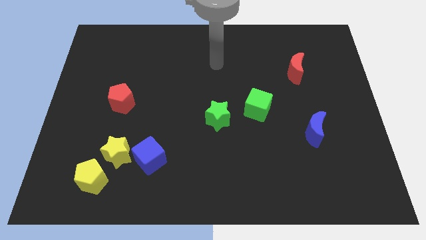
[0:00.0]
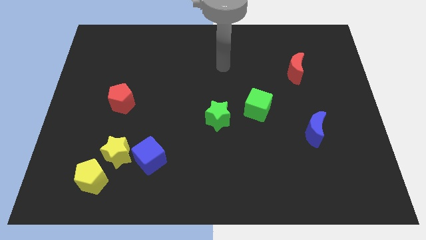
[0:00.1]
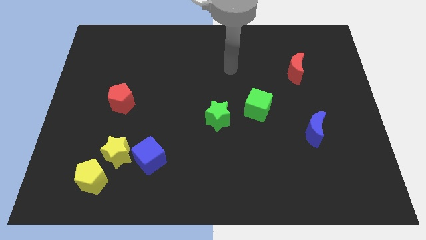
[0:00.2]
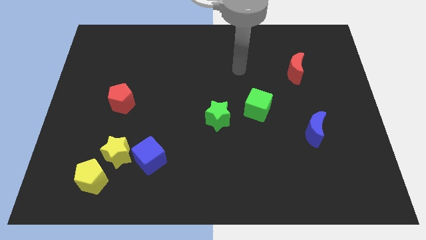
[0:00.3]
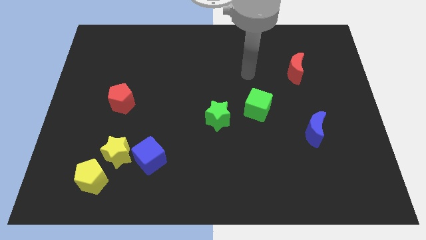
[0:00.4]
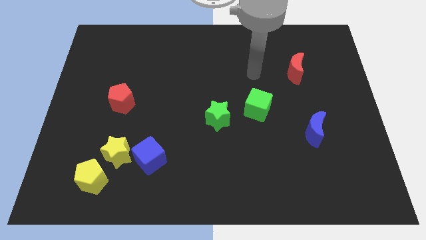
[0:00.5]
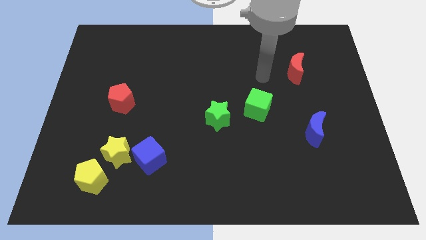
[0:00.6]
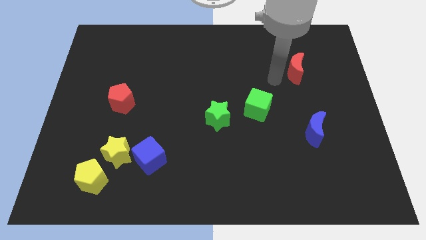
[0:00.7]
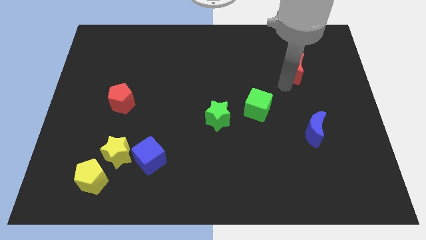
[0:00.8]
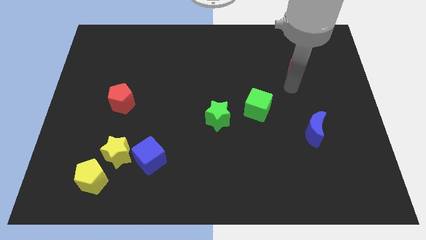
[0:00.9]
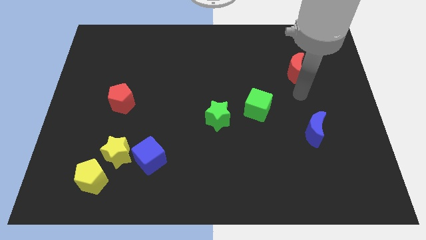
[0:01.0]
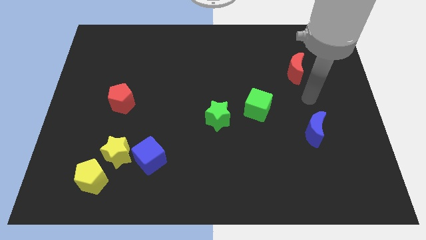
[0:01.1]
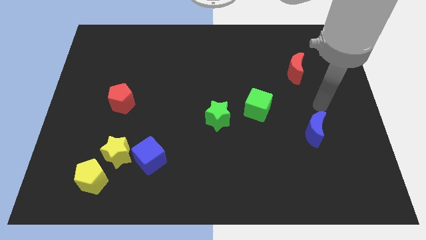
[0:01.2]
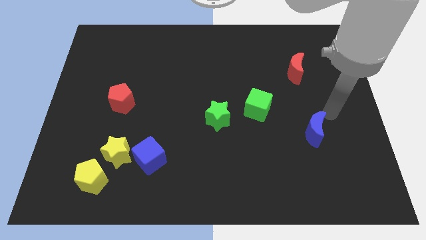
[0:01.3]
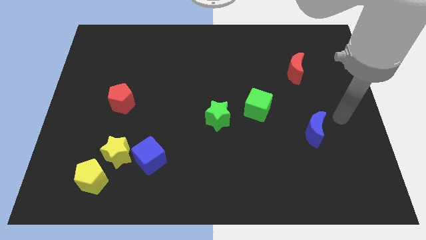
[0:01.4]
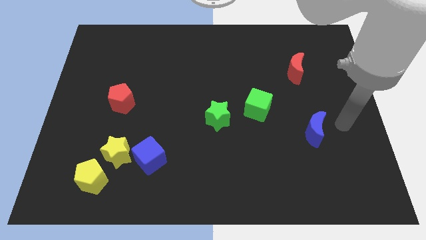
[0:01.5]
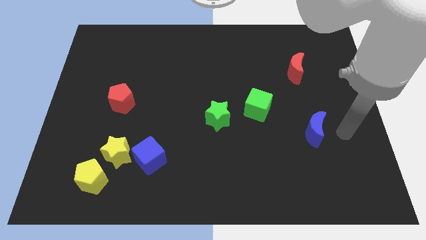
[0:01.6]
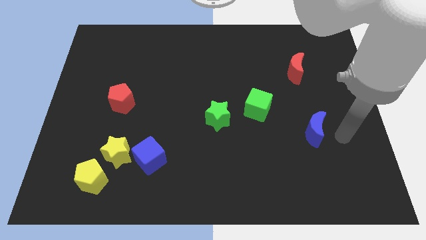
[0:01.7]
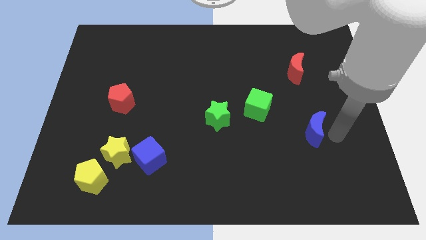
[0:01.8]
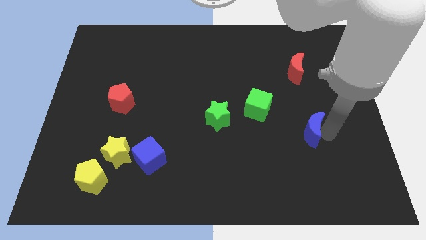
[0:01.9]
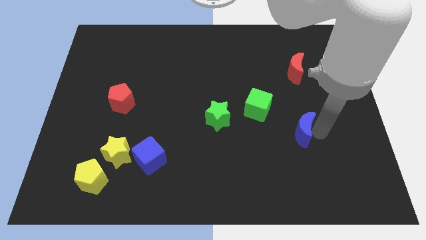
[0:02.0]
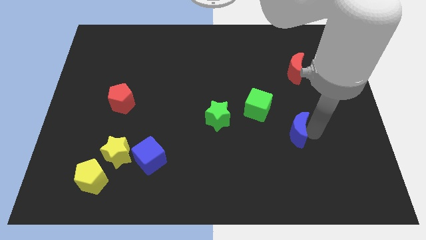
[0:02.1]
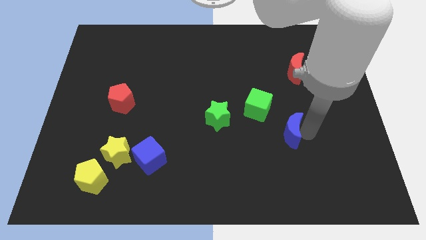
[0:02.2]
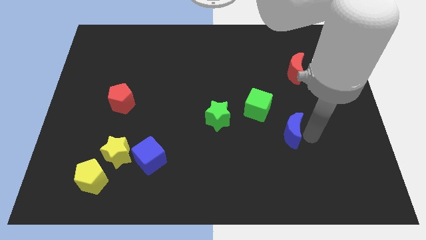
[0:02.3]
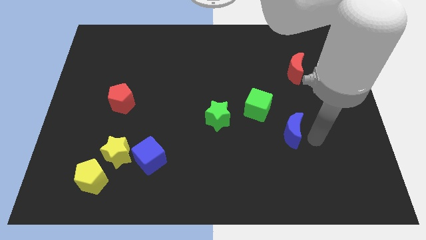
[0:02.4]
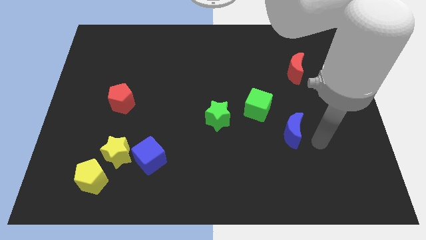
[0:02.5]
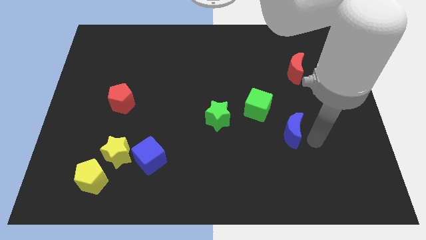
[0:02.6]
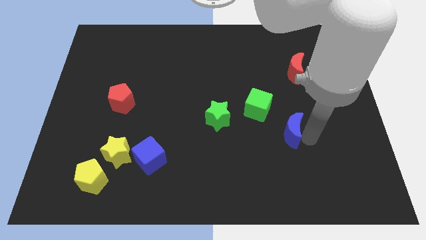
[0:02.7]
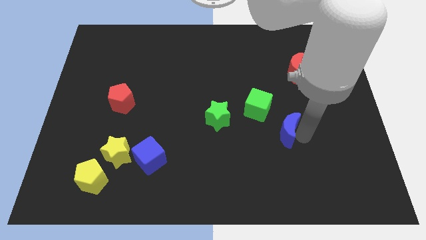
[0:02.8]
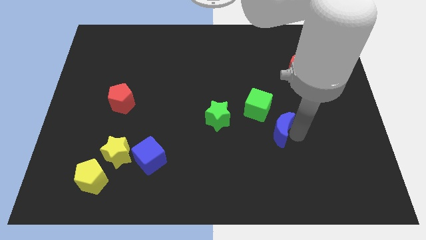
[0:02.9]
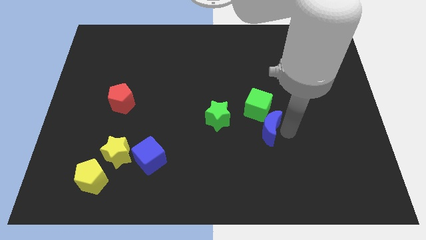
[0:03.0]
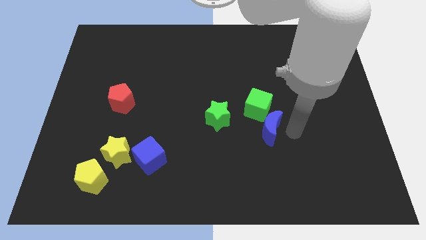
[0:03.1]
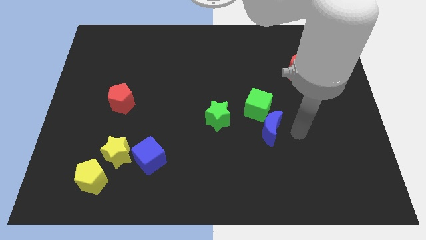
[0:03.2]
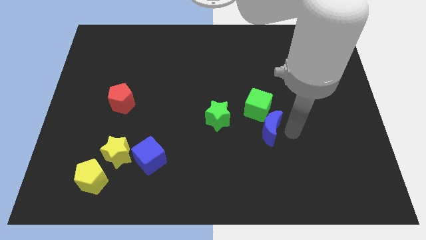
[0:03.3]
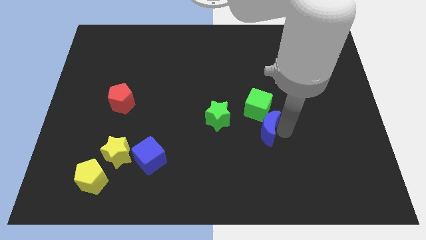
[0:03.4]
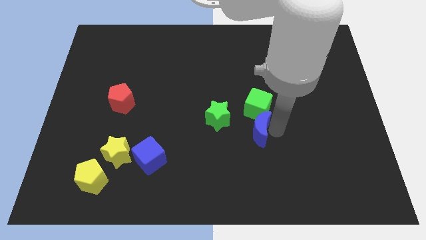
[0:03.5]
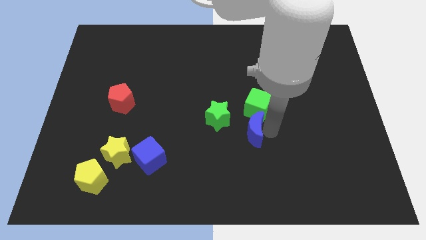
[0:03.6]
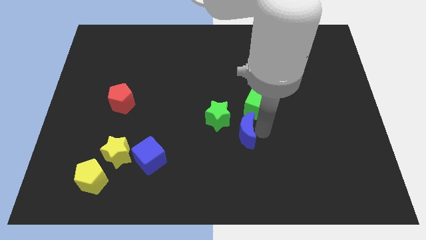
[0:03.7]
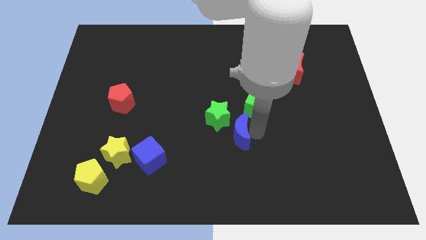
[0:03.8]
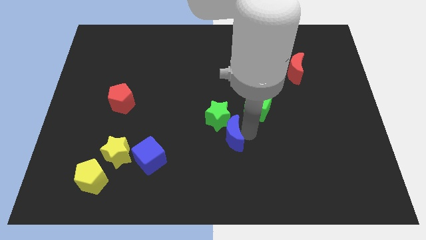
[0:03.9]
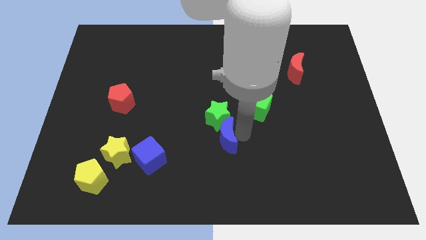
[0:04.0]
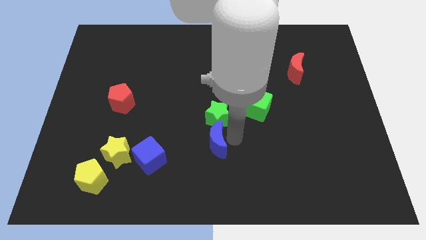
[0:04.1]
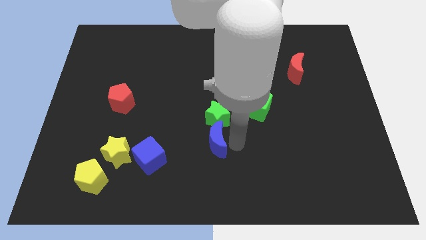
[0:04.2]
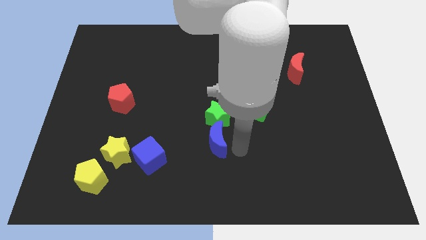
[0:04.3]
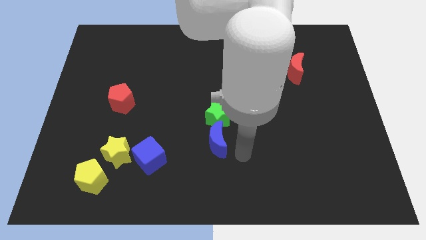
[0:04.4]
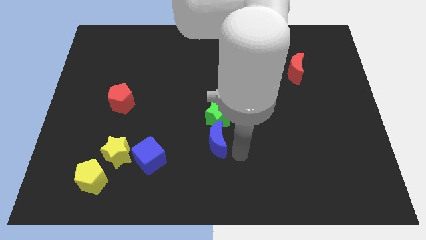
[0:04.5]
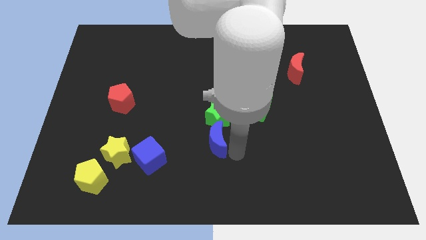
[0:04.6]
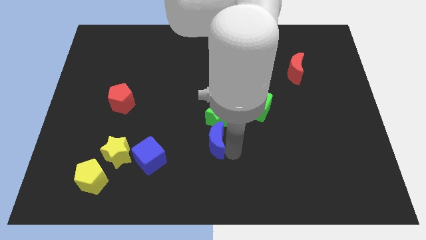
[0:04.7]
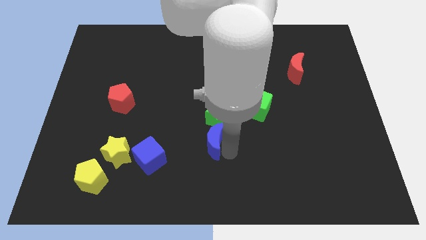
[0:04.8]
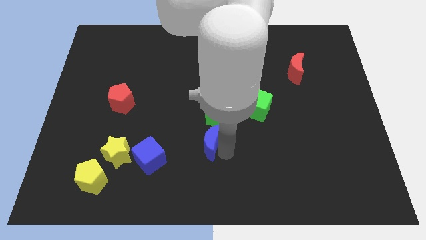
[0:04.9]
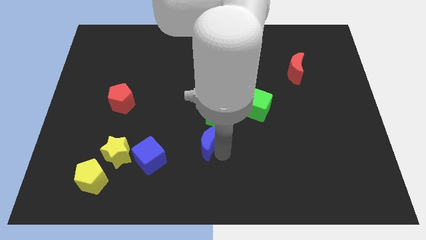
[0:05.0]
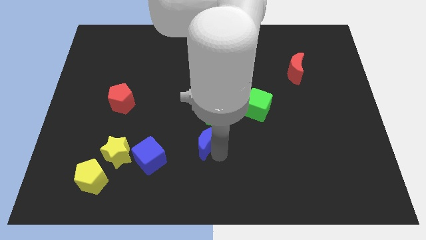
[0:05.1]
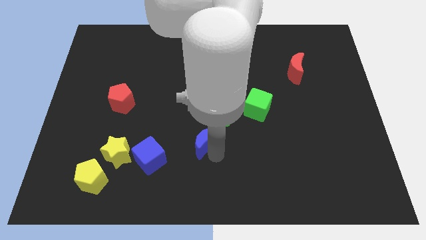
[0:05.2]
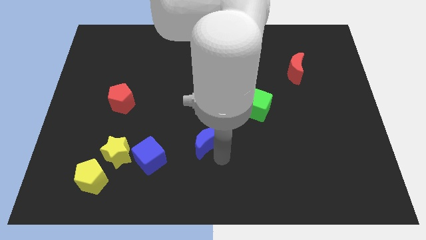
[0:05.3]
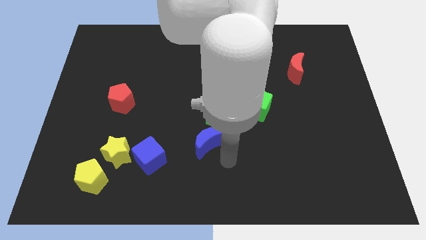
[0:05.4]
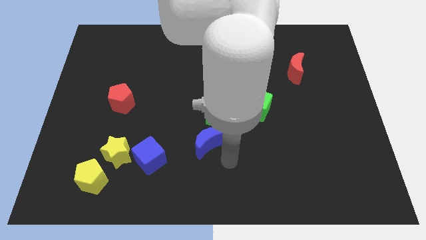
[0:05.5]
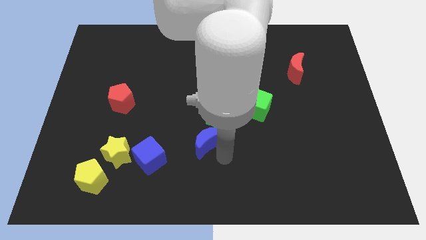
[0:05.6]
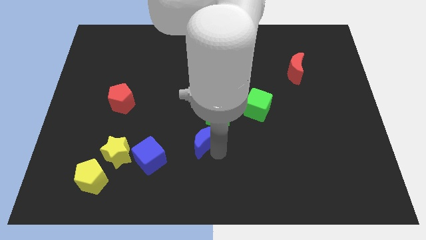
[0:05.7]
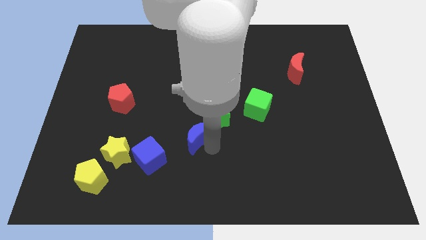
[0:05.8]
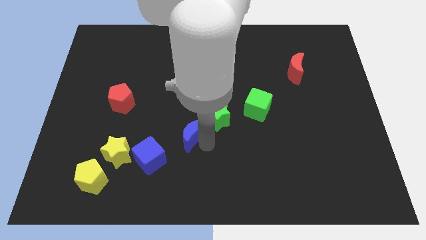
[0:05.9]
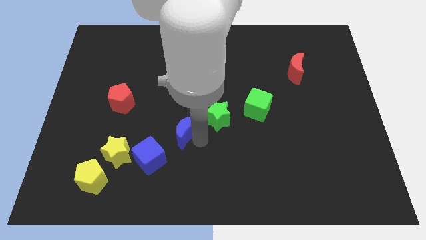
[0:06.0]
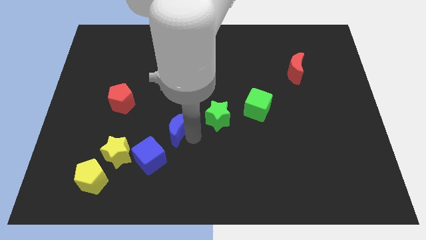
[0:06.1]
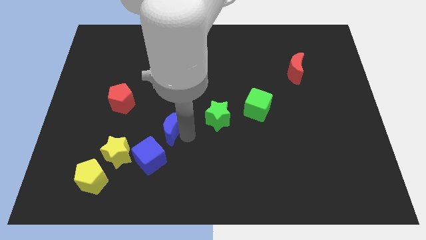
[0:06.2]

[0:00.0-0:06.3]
put the blue moon to the top of the blue cube

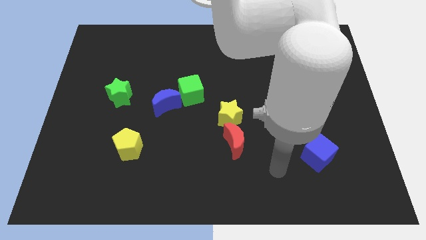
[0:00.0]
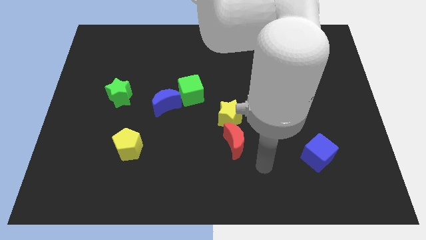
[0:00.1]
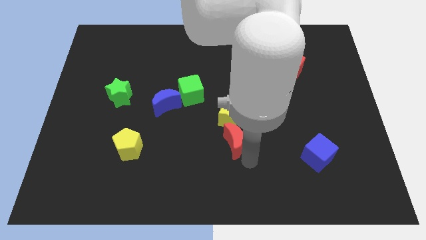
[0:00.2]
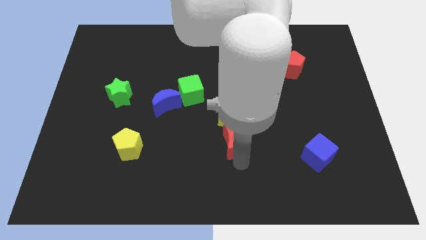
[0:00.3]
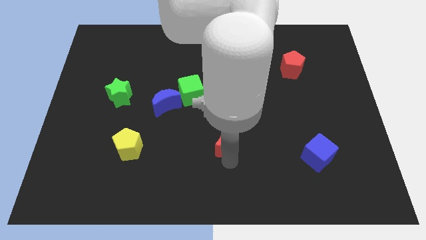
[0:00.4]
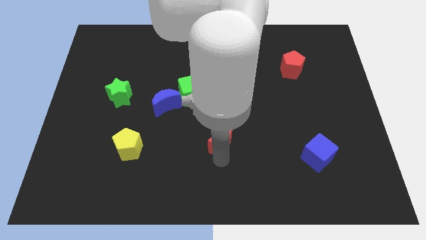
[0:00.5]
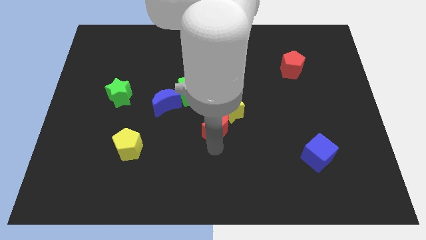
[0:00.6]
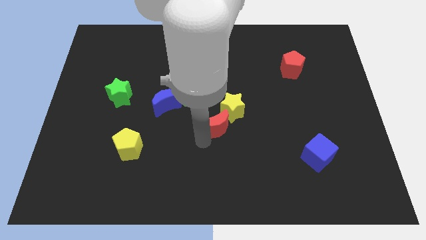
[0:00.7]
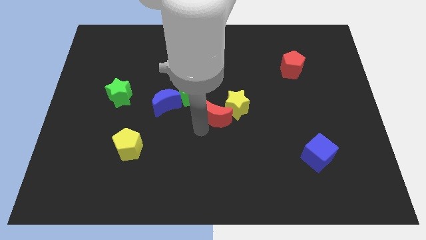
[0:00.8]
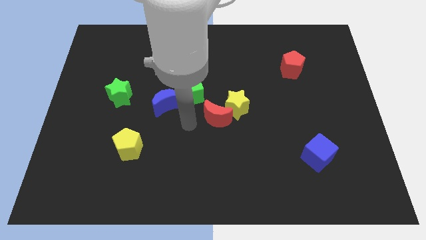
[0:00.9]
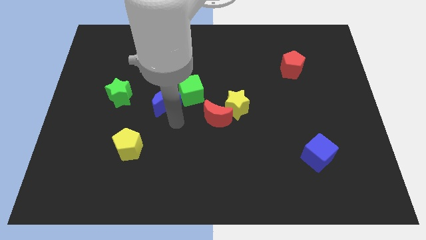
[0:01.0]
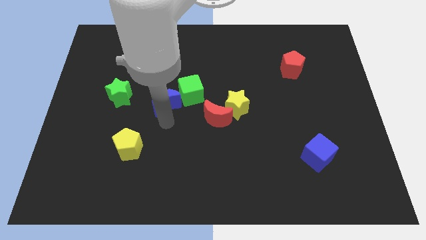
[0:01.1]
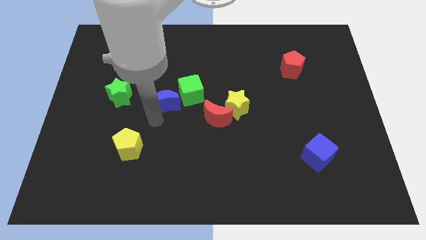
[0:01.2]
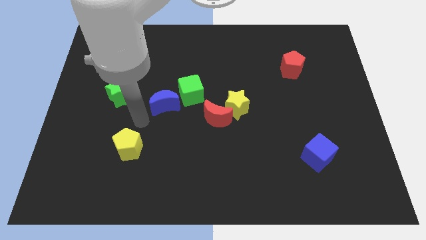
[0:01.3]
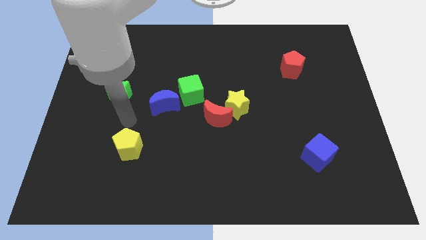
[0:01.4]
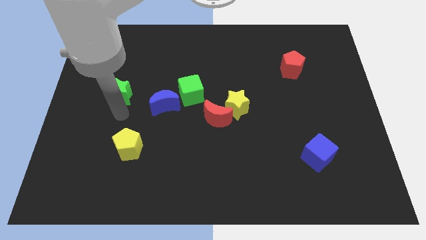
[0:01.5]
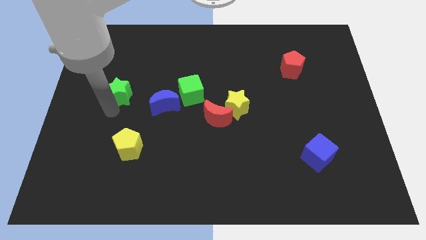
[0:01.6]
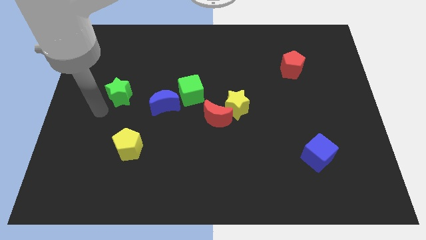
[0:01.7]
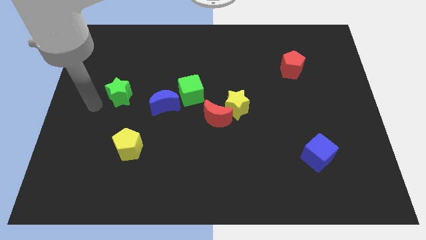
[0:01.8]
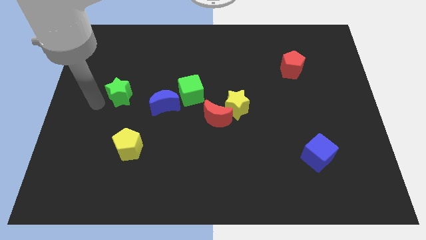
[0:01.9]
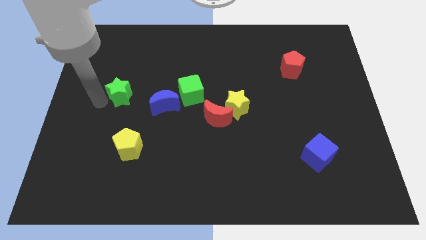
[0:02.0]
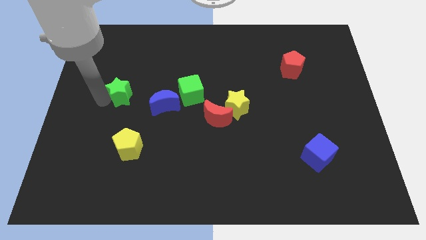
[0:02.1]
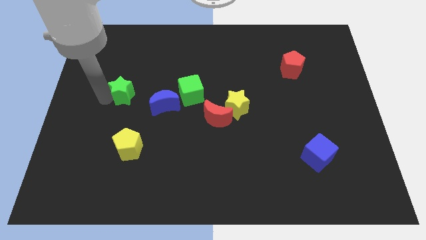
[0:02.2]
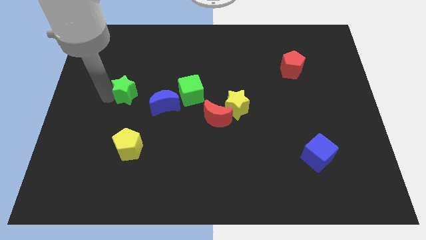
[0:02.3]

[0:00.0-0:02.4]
move the green star to the top left side of the blue moon
